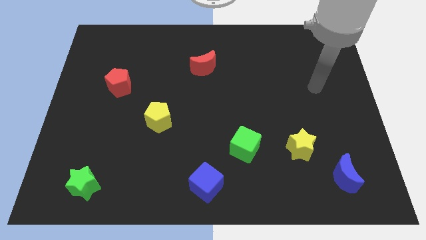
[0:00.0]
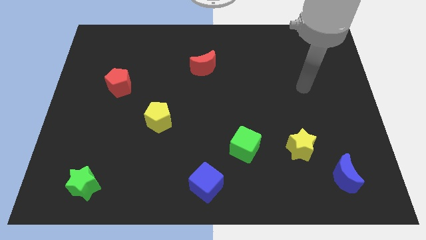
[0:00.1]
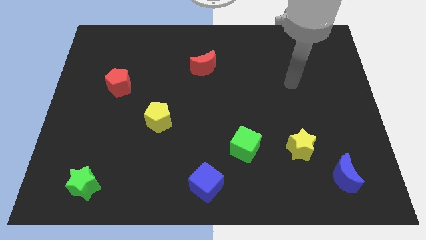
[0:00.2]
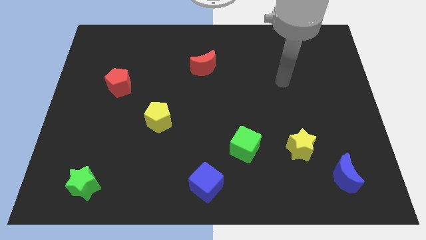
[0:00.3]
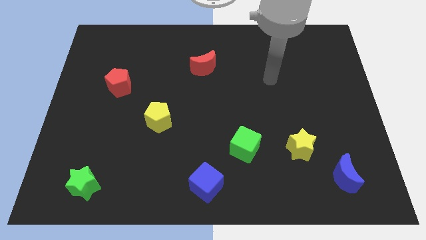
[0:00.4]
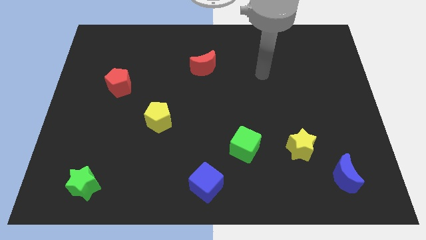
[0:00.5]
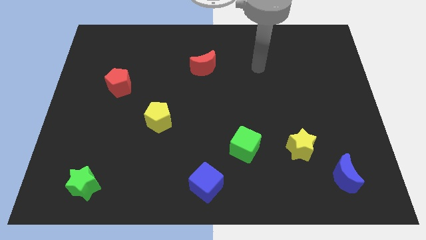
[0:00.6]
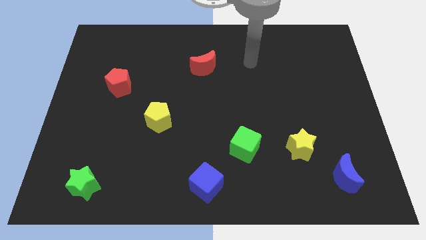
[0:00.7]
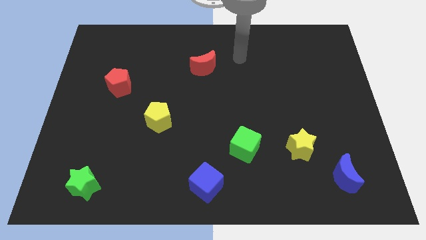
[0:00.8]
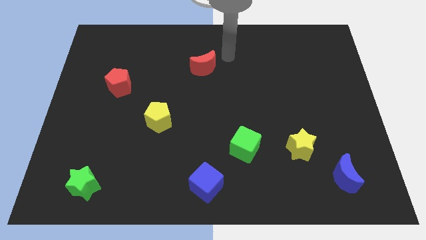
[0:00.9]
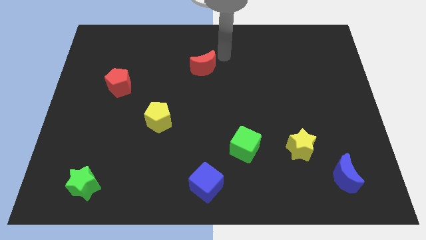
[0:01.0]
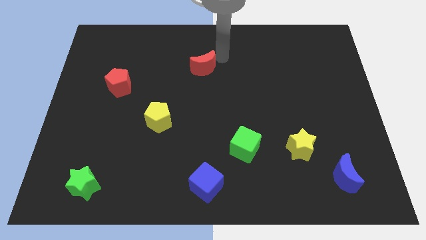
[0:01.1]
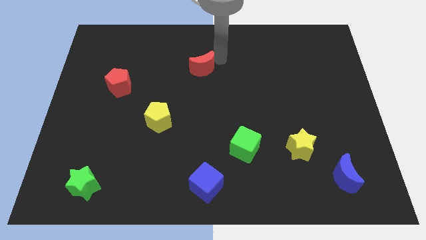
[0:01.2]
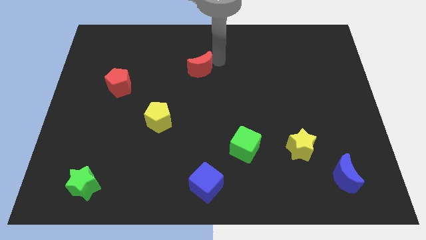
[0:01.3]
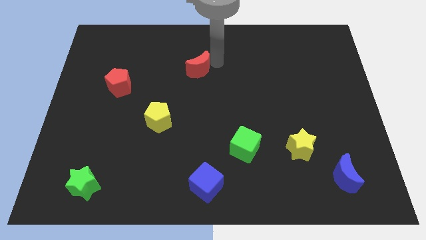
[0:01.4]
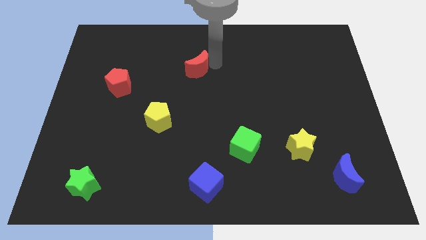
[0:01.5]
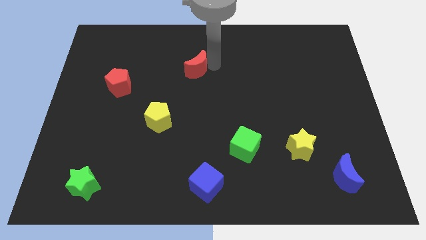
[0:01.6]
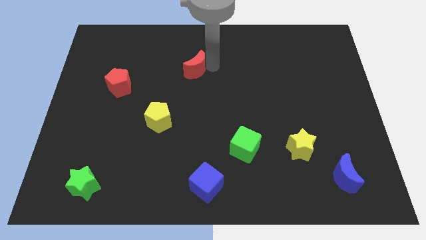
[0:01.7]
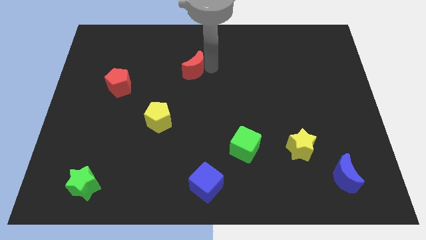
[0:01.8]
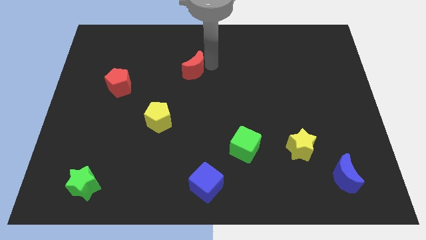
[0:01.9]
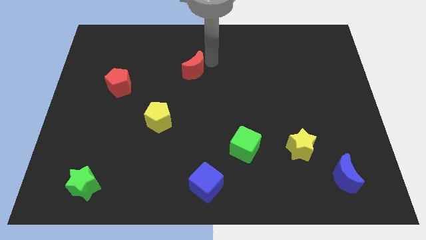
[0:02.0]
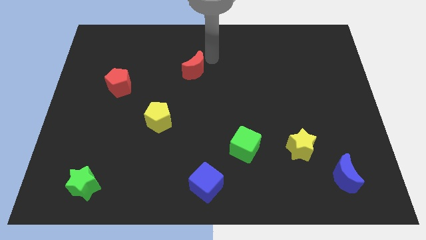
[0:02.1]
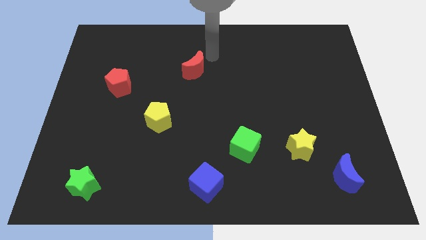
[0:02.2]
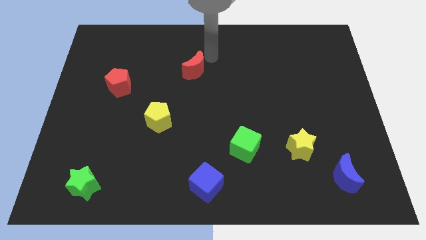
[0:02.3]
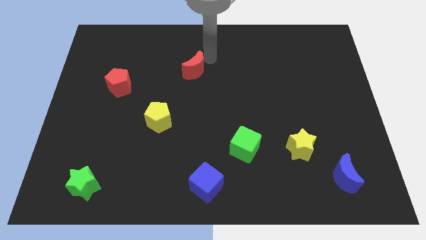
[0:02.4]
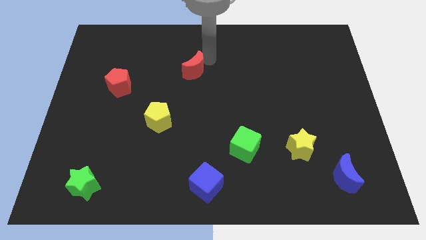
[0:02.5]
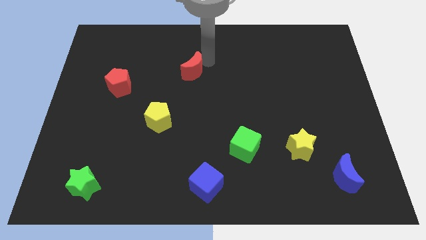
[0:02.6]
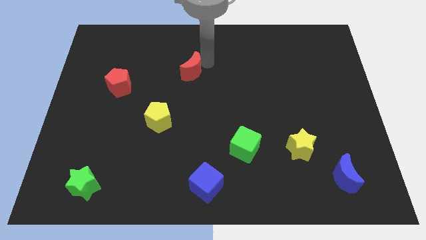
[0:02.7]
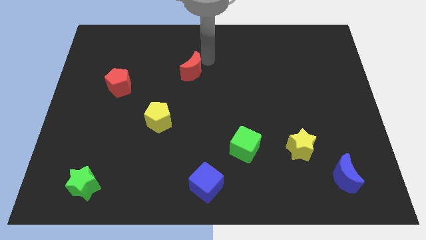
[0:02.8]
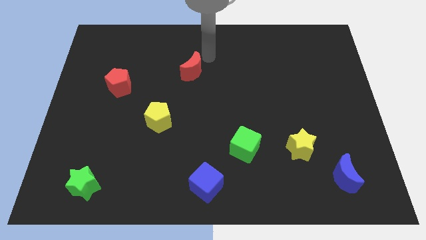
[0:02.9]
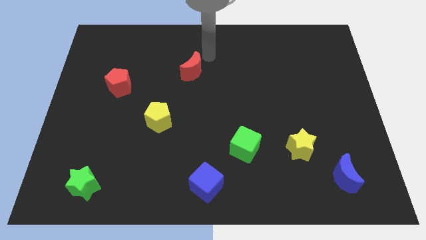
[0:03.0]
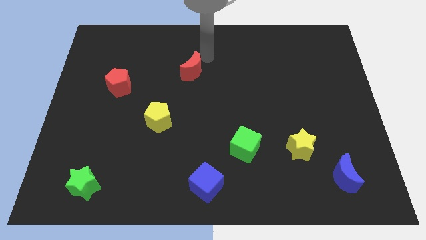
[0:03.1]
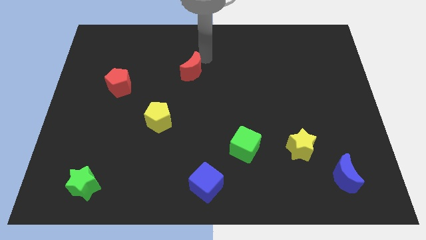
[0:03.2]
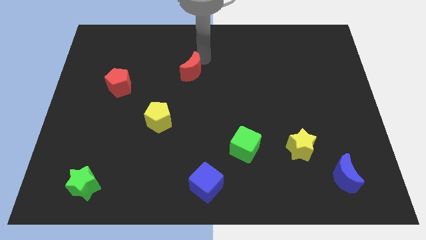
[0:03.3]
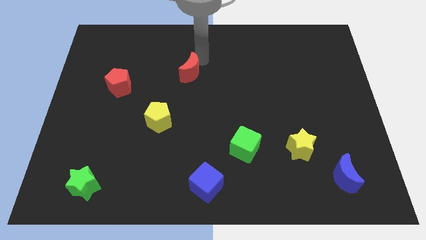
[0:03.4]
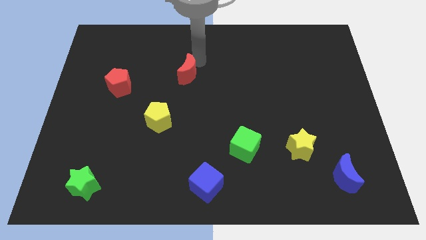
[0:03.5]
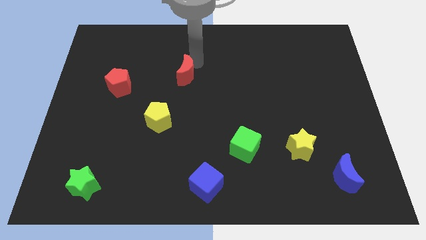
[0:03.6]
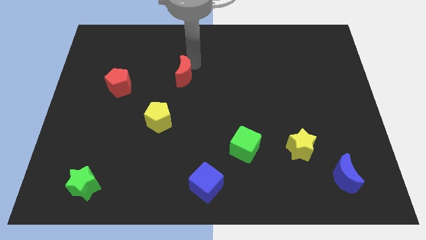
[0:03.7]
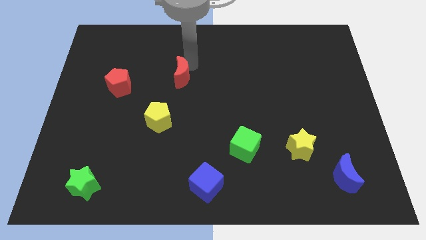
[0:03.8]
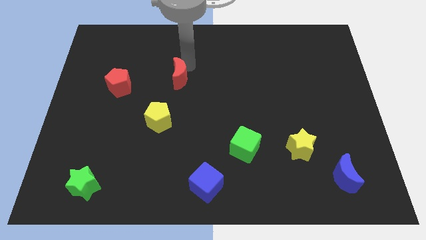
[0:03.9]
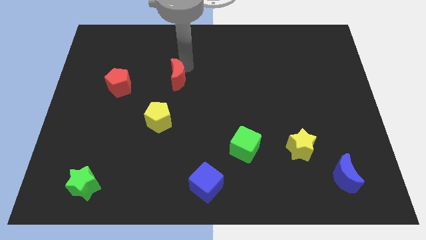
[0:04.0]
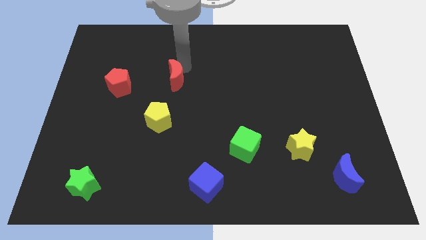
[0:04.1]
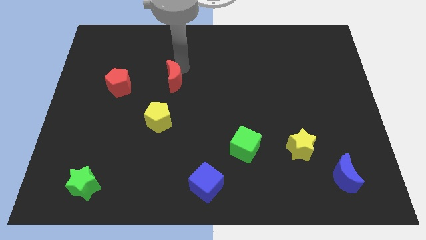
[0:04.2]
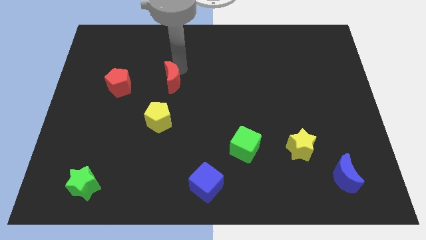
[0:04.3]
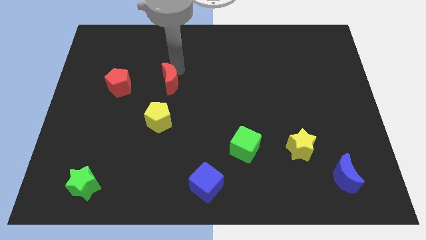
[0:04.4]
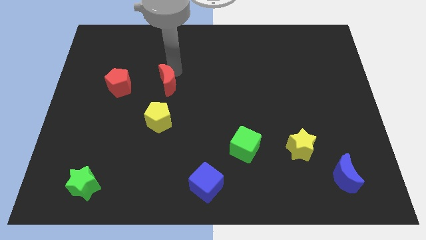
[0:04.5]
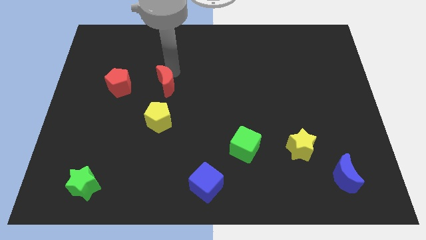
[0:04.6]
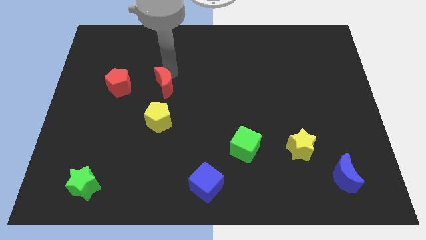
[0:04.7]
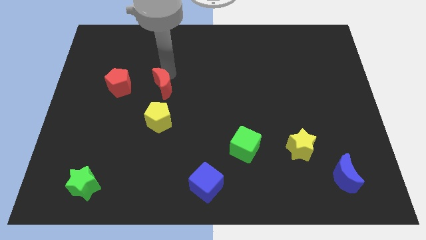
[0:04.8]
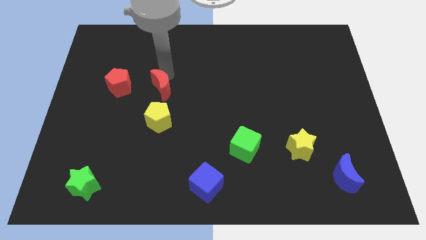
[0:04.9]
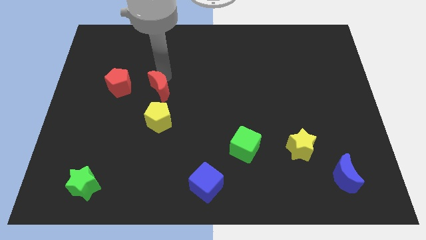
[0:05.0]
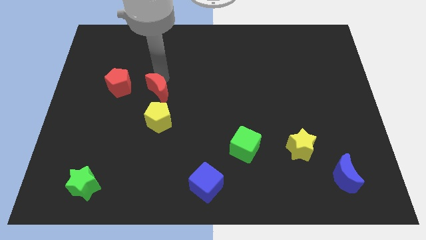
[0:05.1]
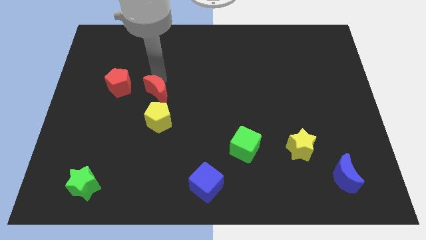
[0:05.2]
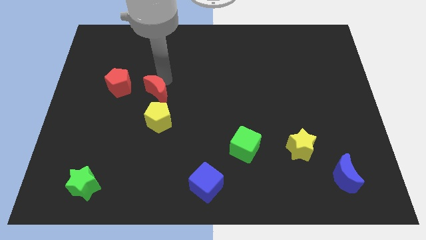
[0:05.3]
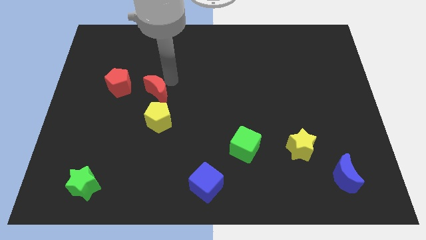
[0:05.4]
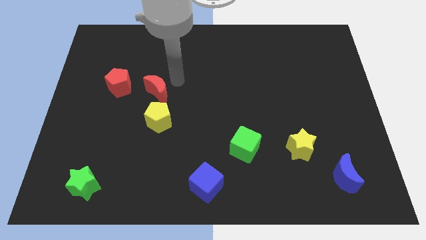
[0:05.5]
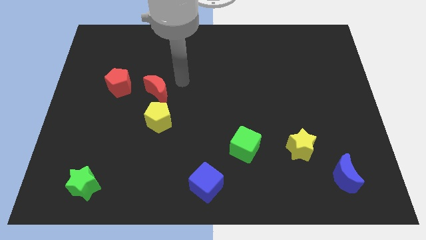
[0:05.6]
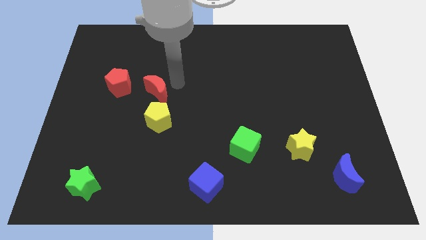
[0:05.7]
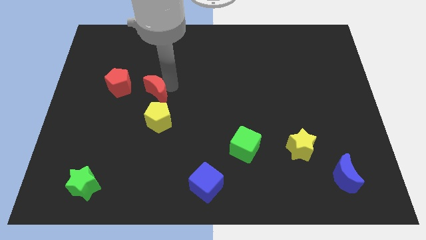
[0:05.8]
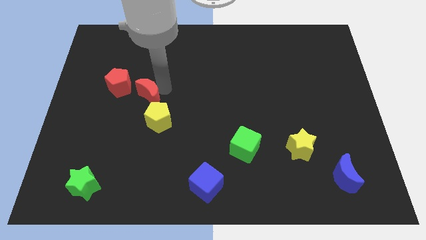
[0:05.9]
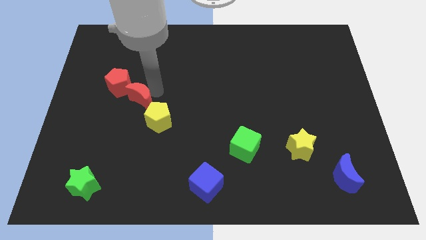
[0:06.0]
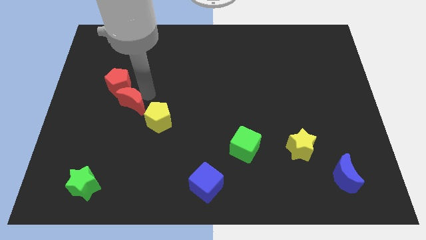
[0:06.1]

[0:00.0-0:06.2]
move the red moon to the bottom side of the red pentagon
